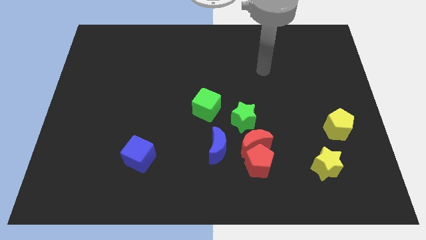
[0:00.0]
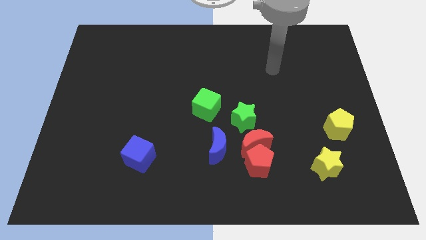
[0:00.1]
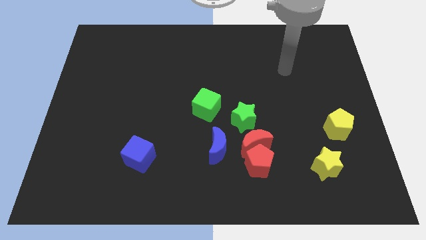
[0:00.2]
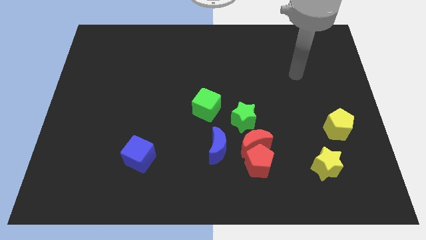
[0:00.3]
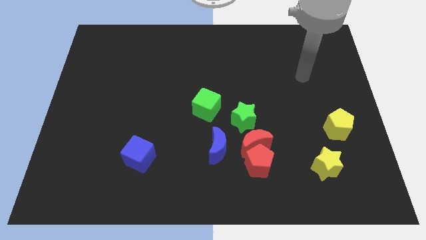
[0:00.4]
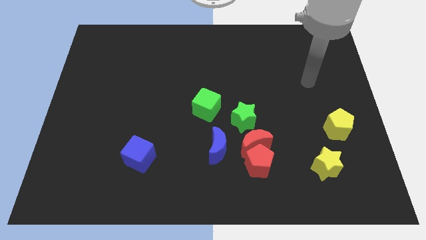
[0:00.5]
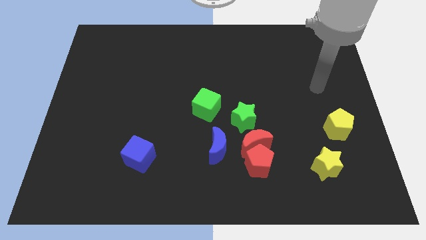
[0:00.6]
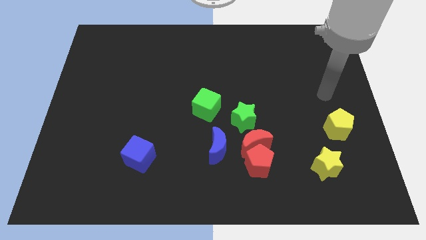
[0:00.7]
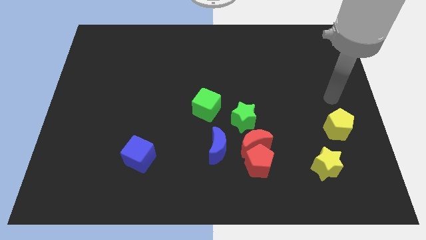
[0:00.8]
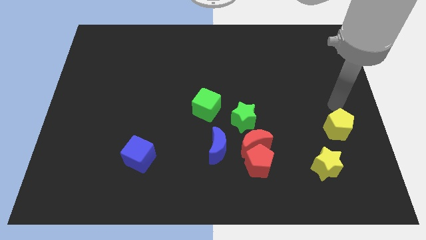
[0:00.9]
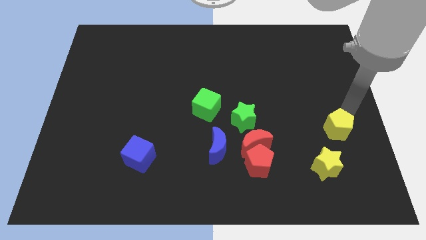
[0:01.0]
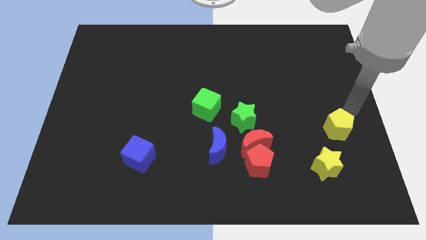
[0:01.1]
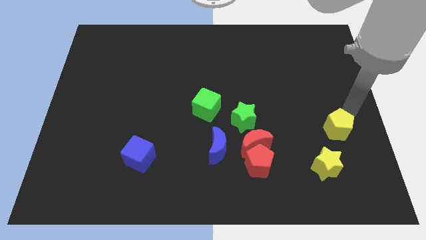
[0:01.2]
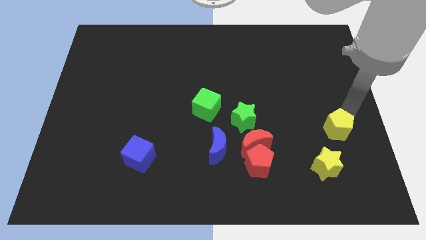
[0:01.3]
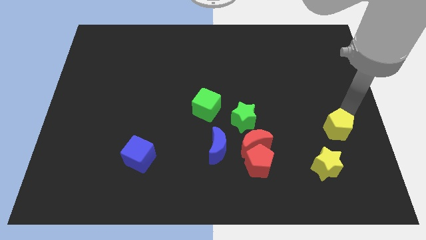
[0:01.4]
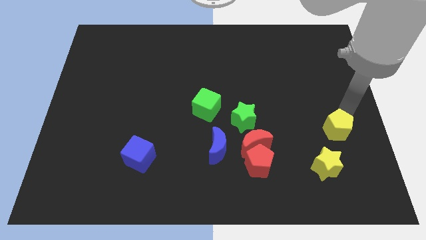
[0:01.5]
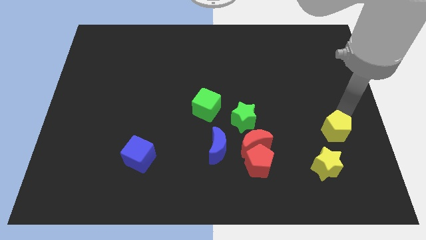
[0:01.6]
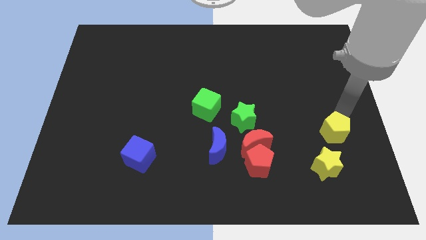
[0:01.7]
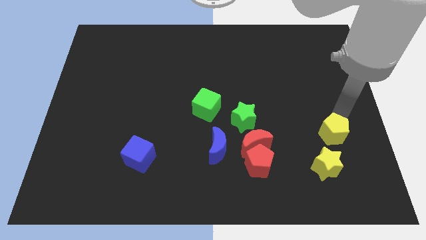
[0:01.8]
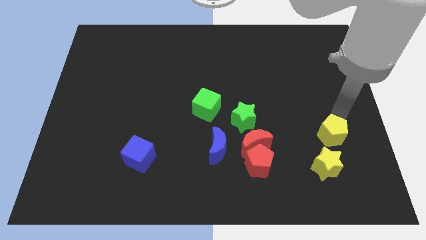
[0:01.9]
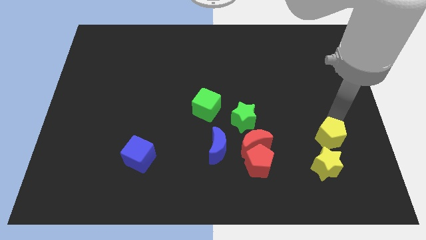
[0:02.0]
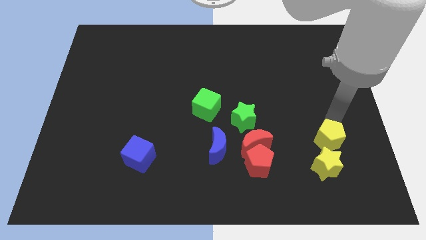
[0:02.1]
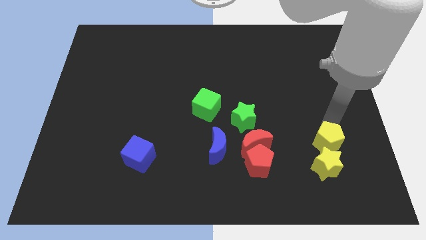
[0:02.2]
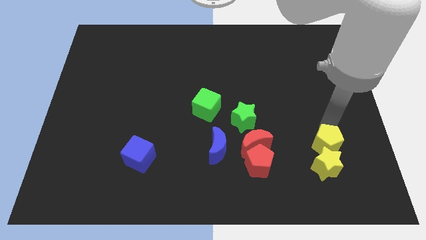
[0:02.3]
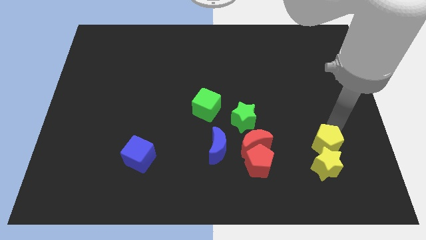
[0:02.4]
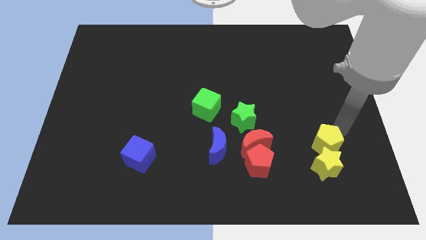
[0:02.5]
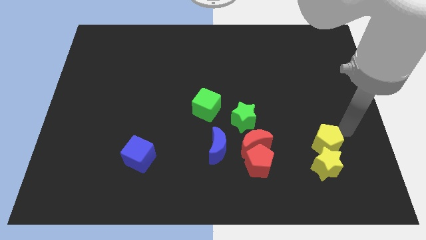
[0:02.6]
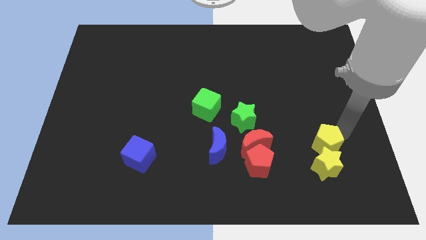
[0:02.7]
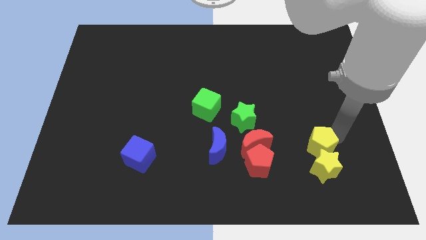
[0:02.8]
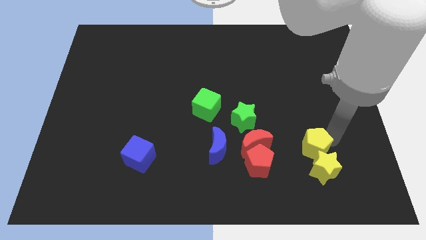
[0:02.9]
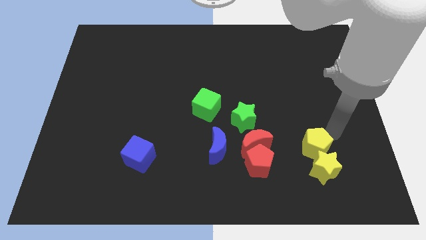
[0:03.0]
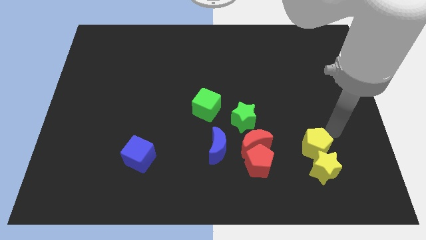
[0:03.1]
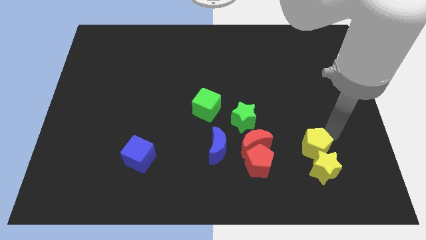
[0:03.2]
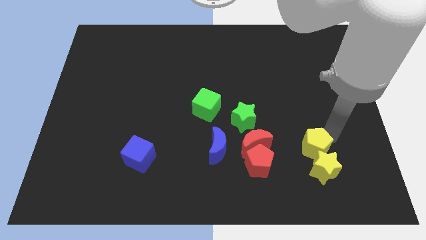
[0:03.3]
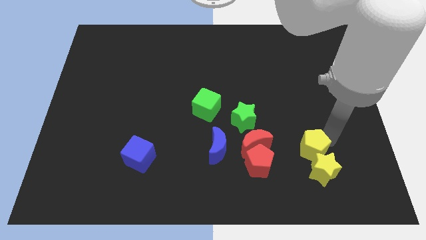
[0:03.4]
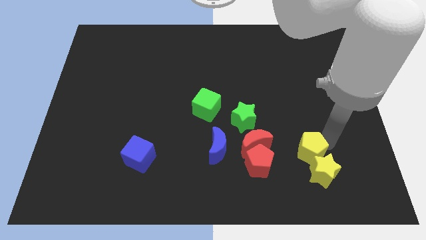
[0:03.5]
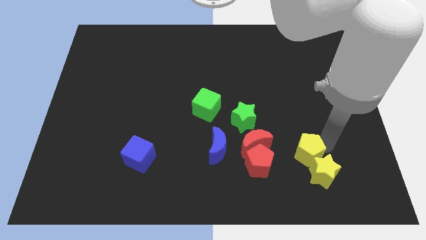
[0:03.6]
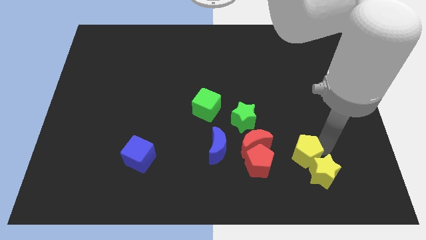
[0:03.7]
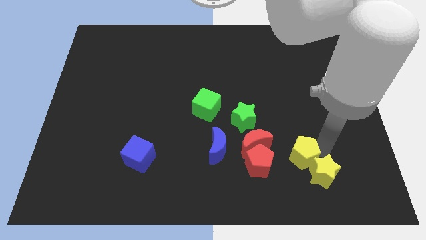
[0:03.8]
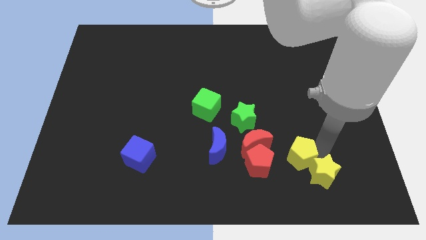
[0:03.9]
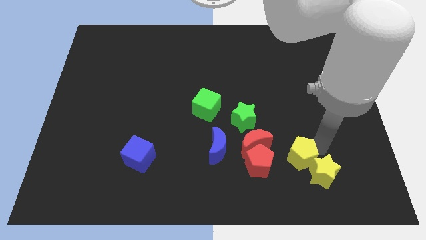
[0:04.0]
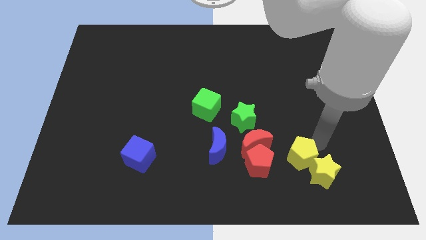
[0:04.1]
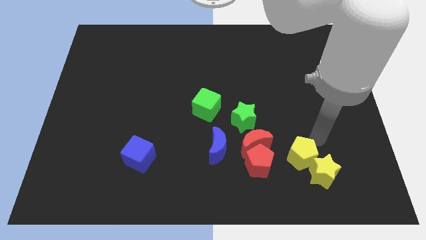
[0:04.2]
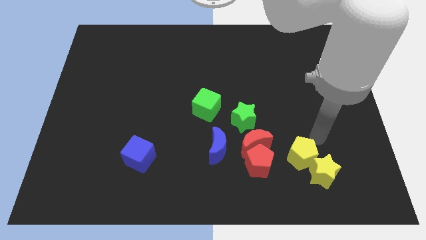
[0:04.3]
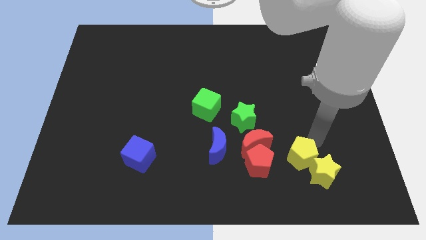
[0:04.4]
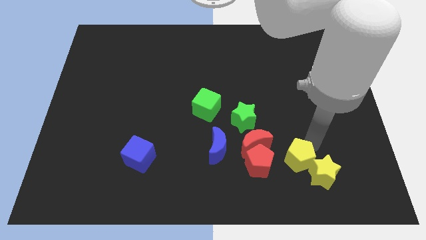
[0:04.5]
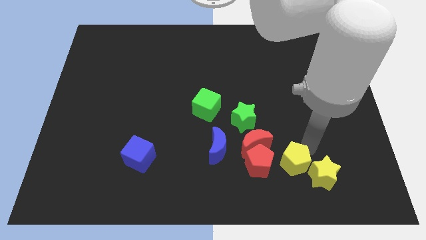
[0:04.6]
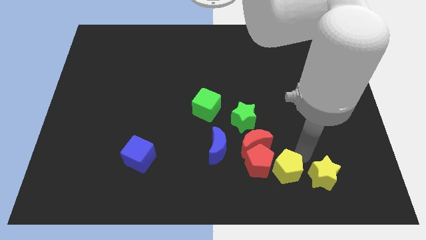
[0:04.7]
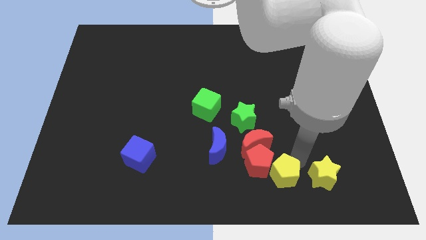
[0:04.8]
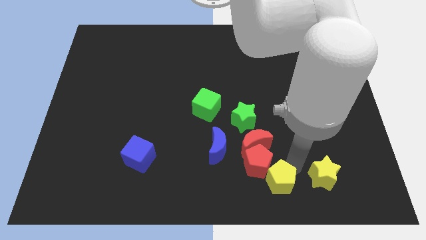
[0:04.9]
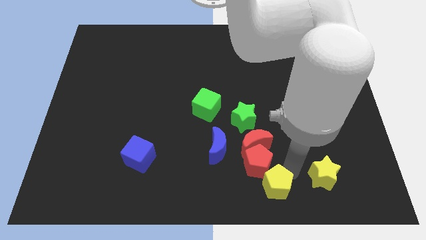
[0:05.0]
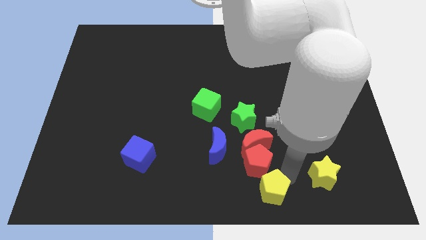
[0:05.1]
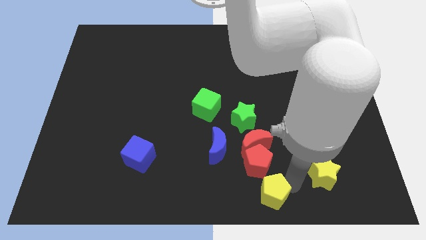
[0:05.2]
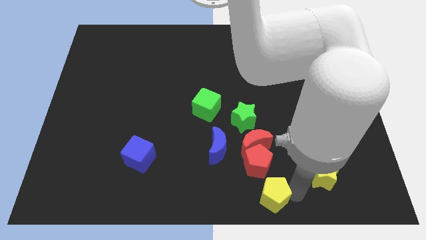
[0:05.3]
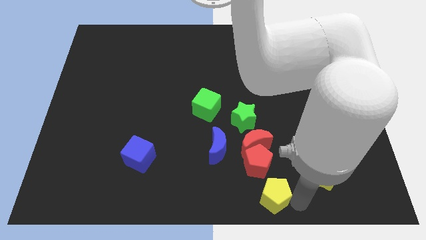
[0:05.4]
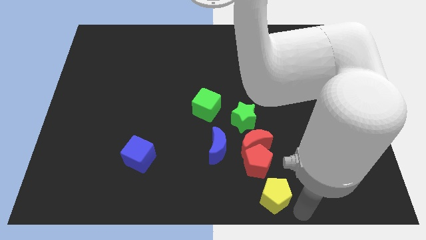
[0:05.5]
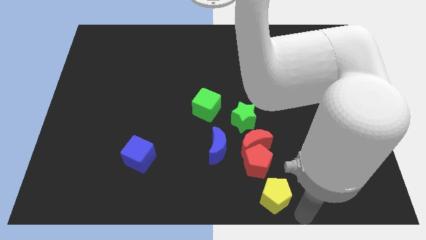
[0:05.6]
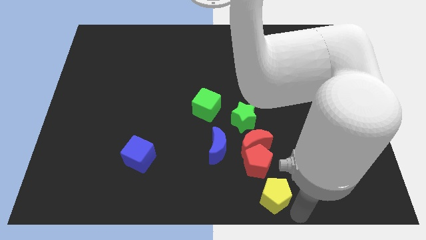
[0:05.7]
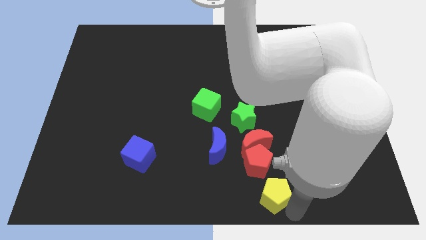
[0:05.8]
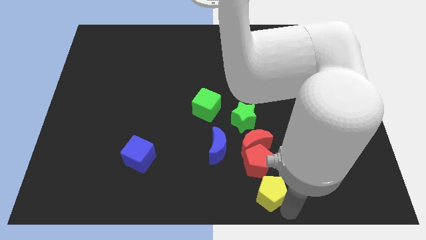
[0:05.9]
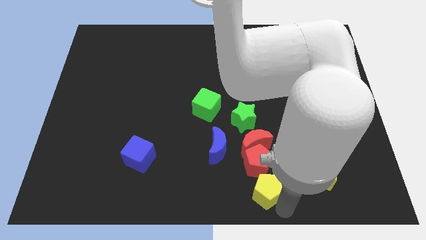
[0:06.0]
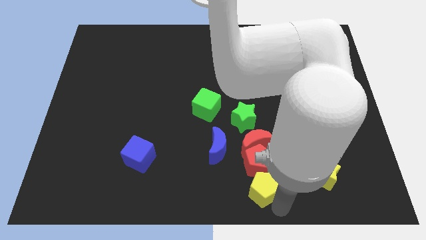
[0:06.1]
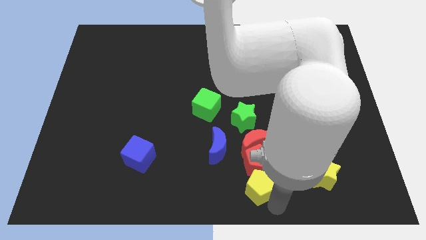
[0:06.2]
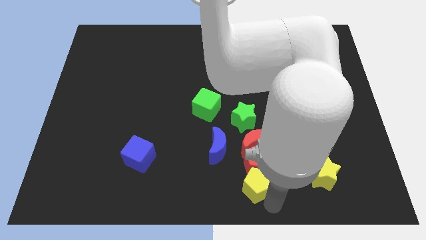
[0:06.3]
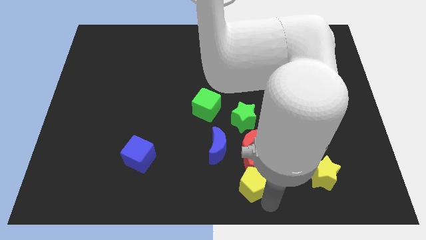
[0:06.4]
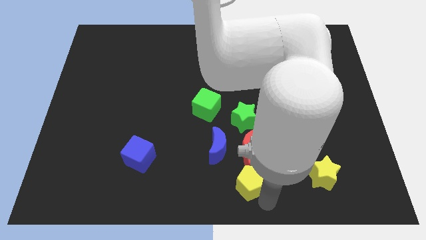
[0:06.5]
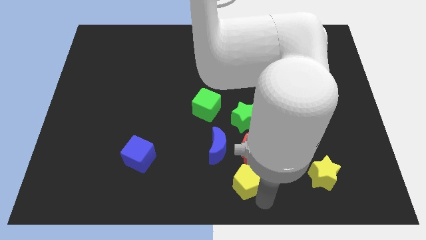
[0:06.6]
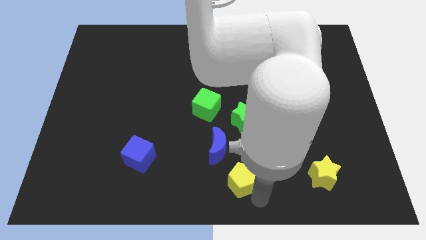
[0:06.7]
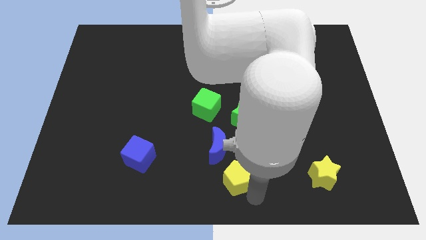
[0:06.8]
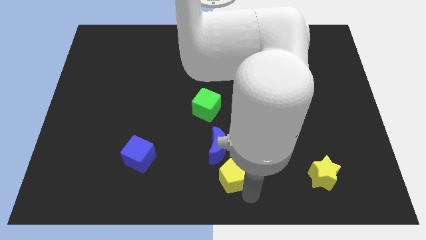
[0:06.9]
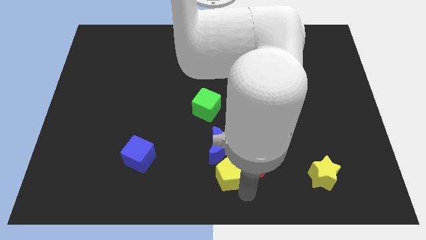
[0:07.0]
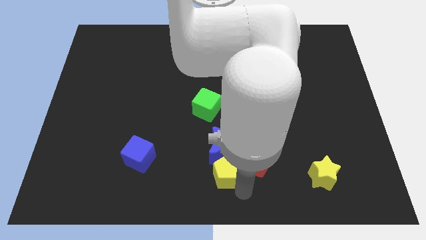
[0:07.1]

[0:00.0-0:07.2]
slide the yellow pentagon to the blue moon
